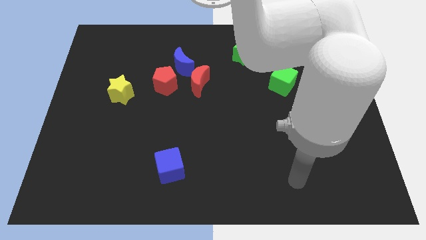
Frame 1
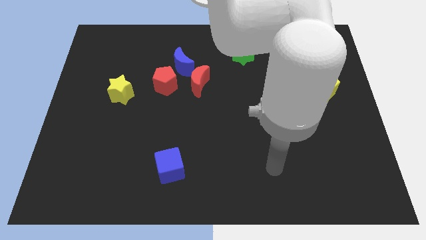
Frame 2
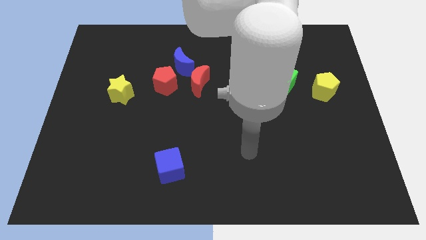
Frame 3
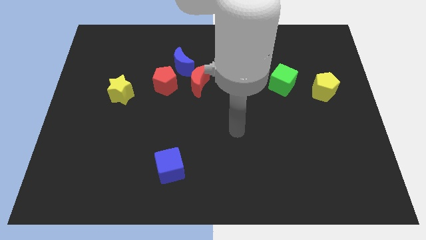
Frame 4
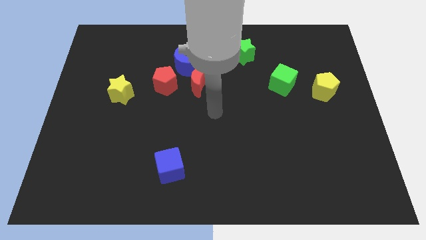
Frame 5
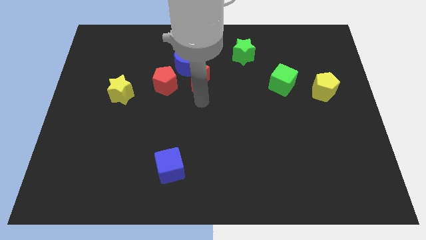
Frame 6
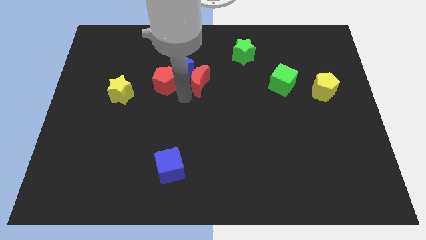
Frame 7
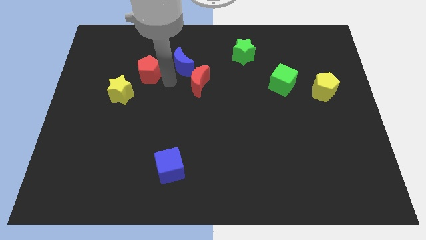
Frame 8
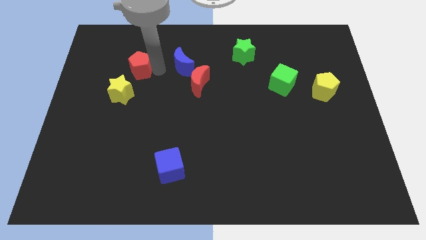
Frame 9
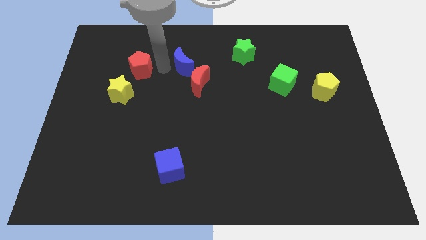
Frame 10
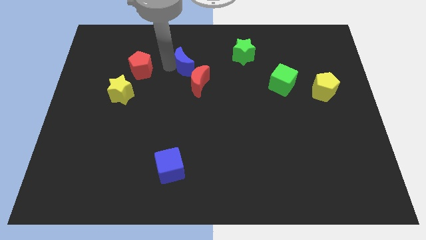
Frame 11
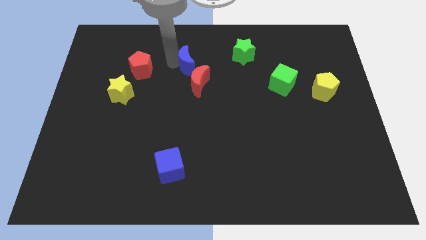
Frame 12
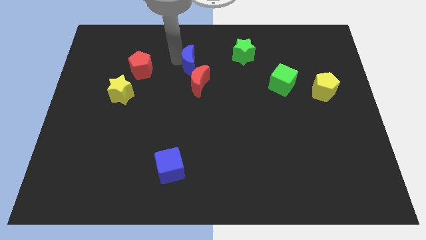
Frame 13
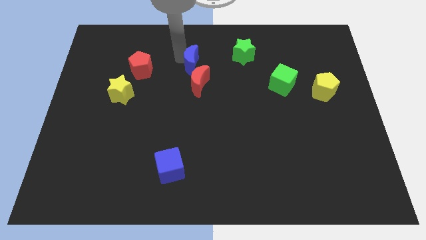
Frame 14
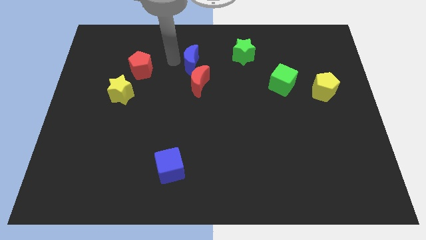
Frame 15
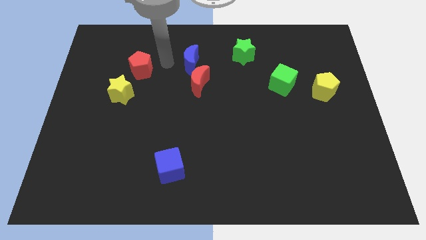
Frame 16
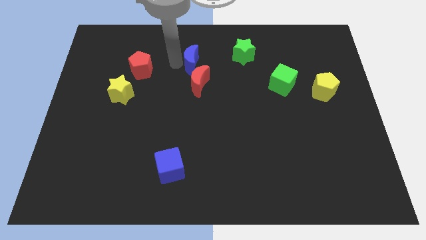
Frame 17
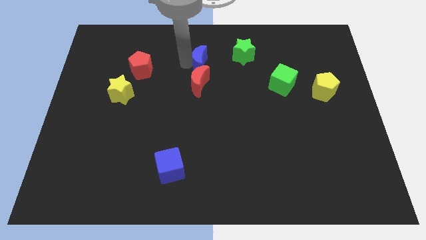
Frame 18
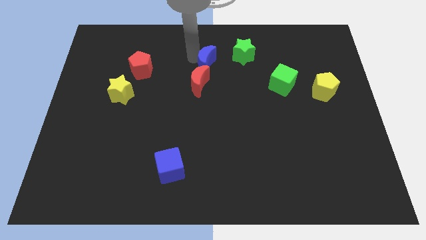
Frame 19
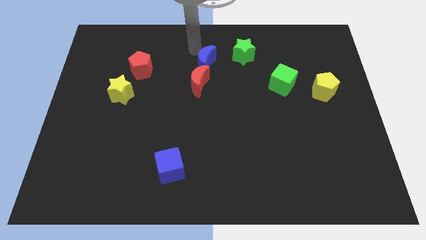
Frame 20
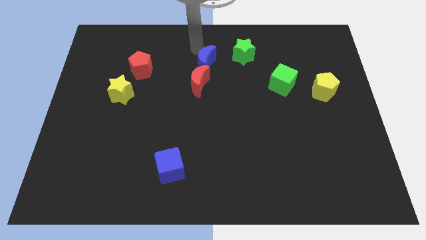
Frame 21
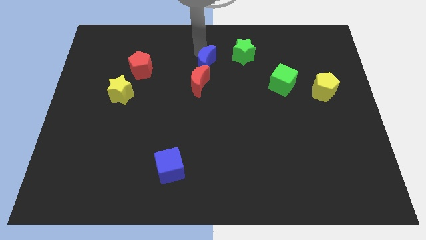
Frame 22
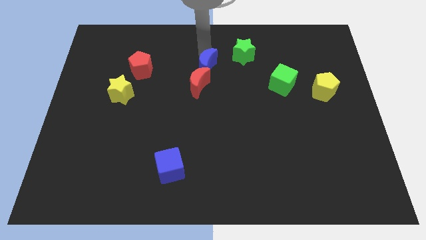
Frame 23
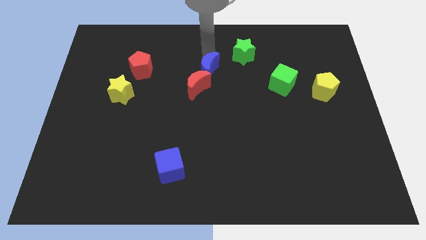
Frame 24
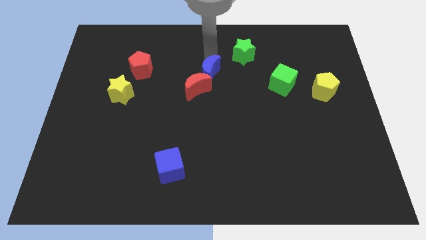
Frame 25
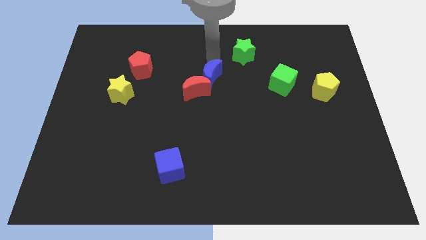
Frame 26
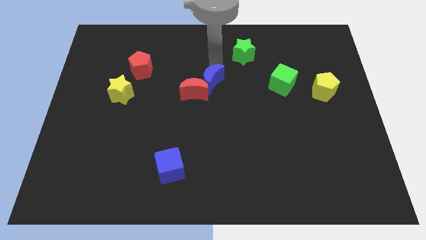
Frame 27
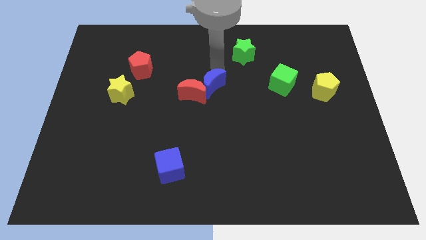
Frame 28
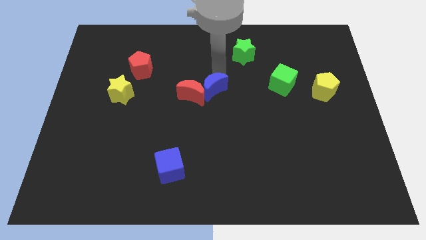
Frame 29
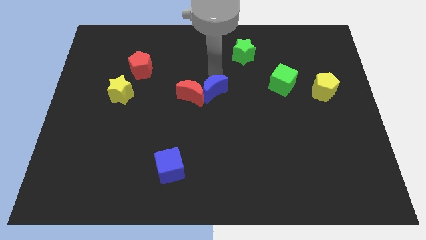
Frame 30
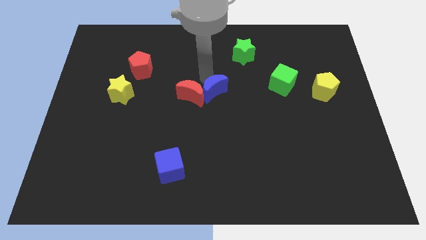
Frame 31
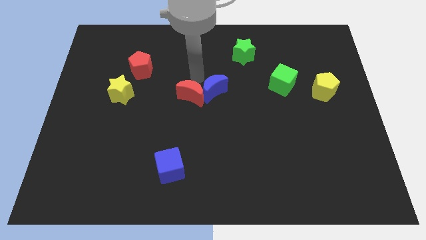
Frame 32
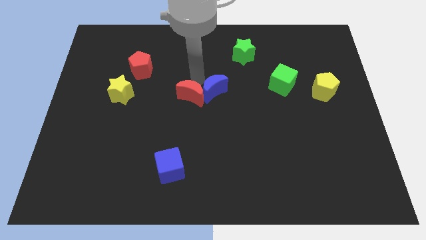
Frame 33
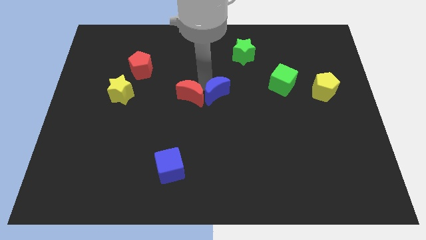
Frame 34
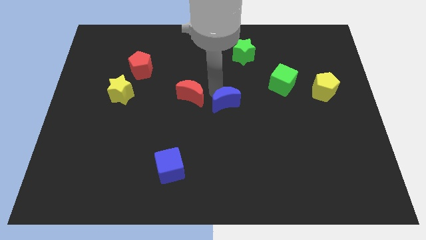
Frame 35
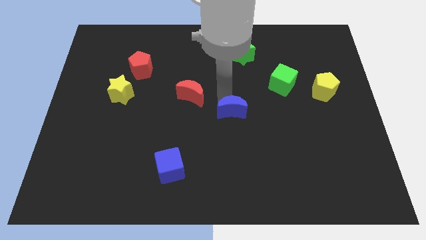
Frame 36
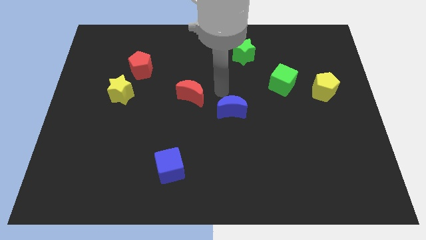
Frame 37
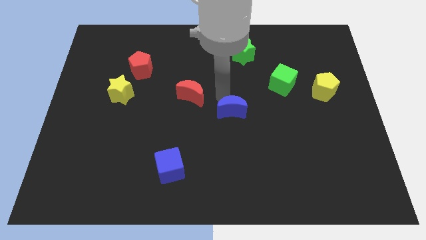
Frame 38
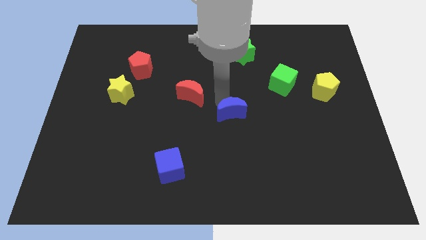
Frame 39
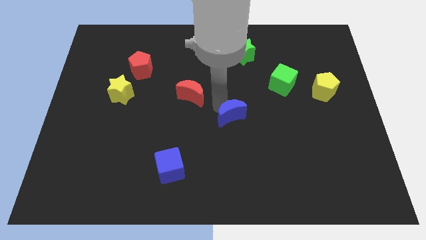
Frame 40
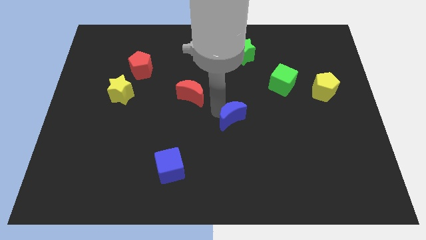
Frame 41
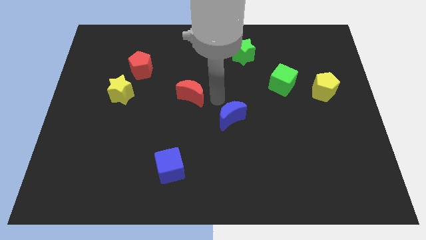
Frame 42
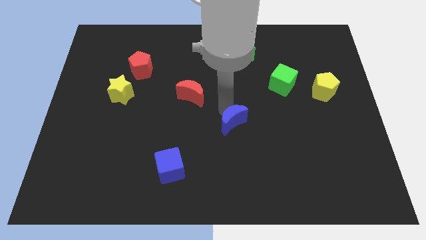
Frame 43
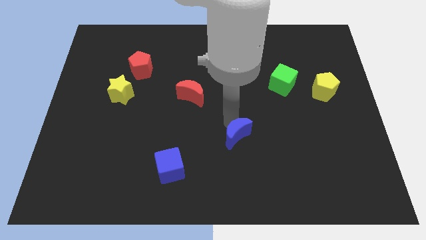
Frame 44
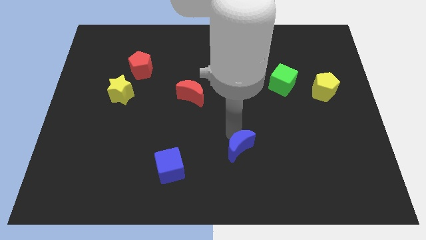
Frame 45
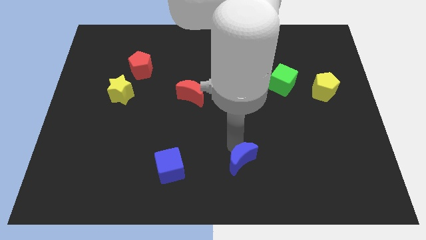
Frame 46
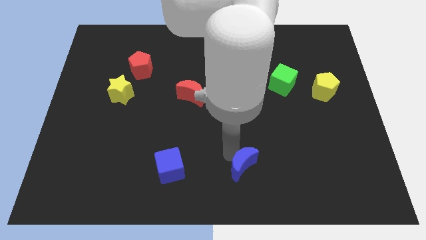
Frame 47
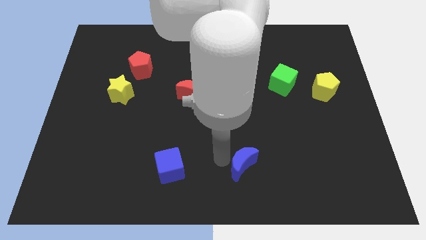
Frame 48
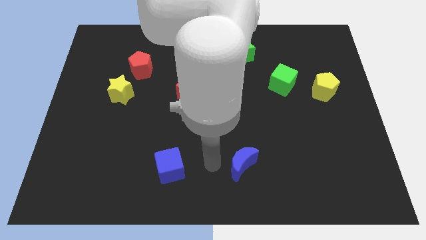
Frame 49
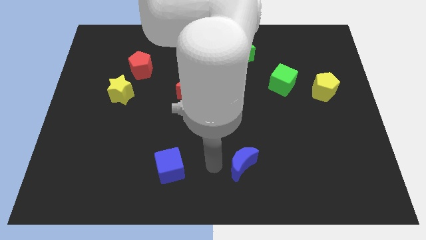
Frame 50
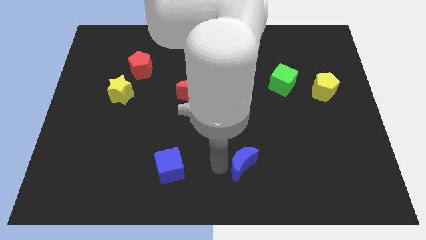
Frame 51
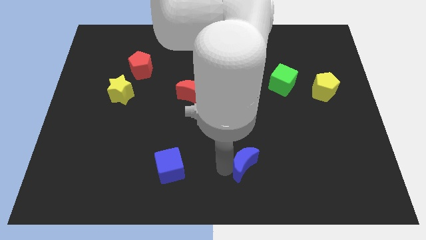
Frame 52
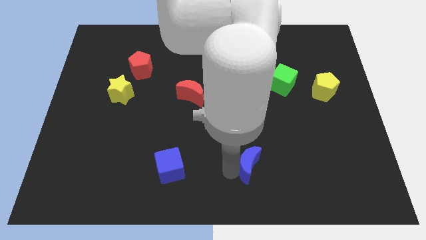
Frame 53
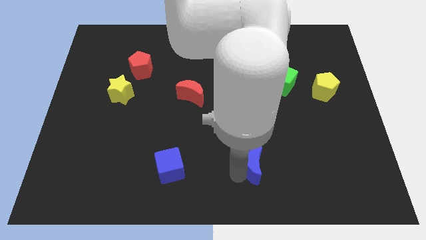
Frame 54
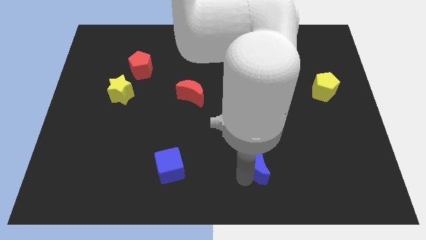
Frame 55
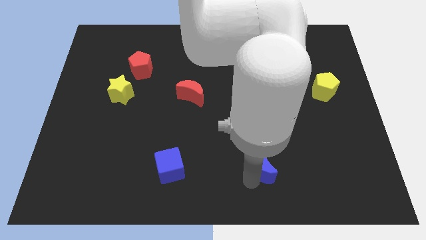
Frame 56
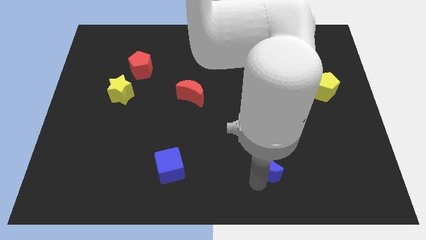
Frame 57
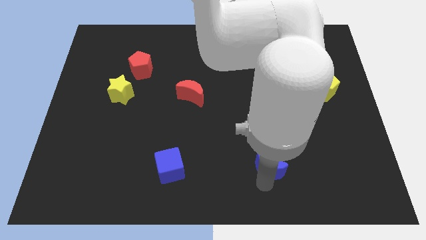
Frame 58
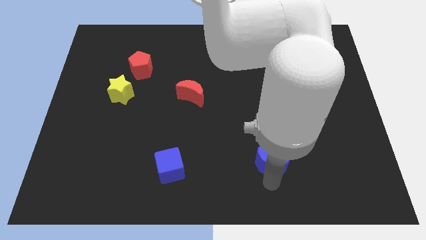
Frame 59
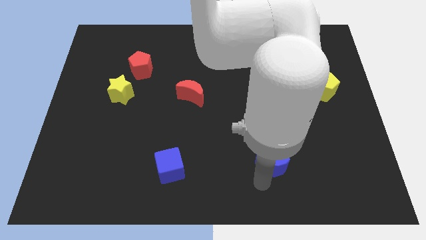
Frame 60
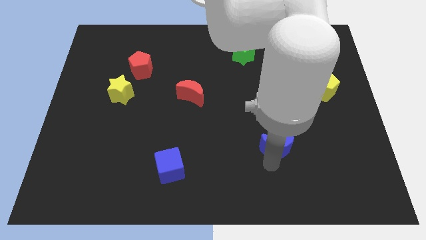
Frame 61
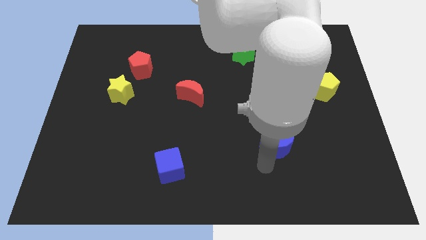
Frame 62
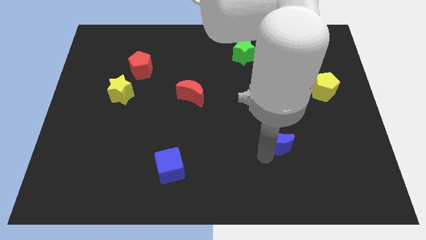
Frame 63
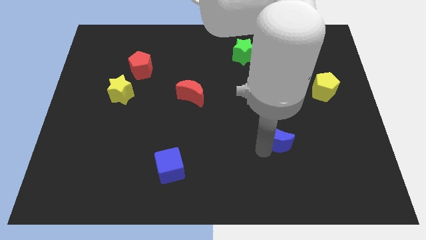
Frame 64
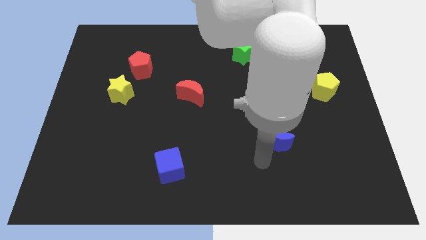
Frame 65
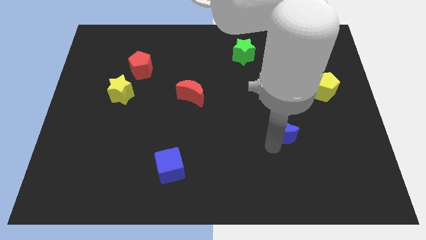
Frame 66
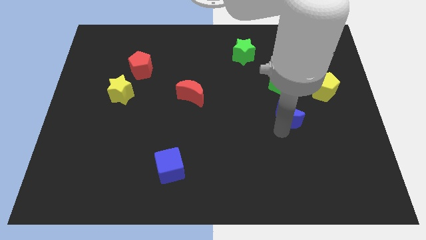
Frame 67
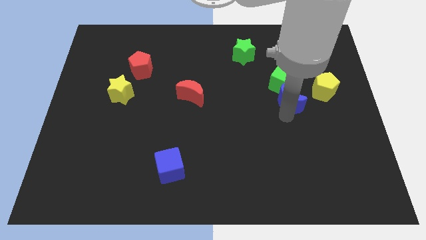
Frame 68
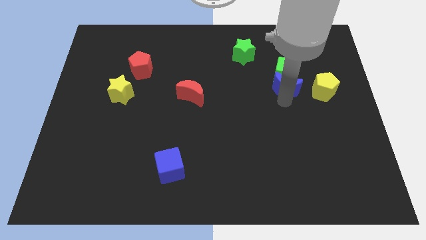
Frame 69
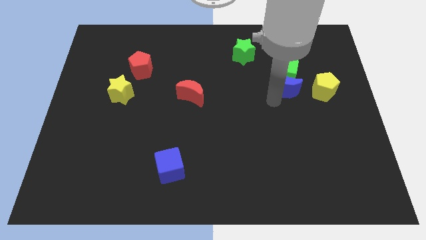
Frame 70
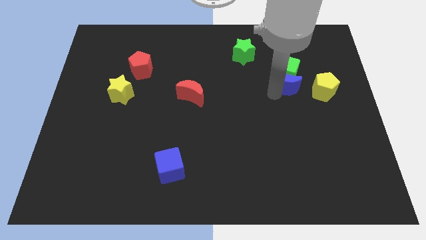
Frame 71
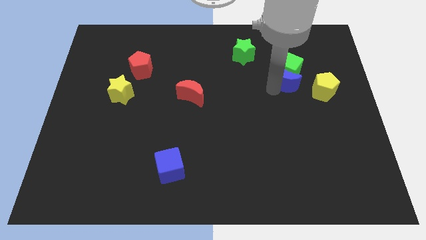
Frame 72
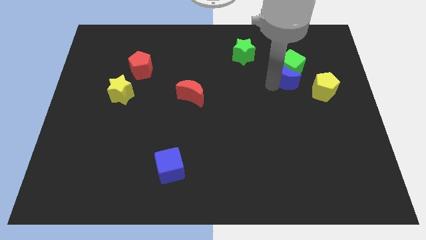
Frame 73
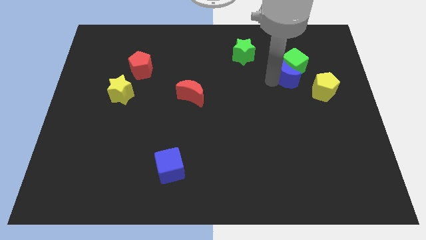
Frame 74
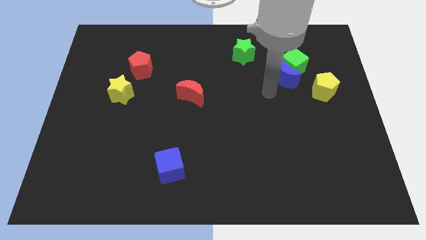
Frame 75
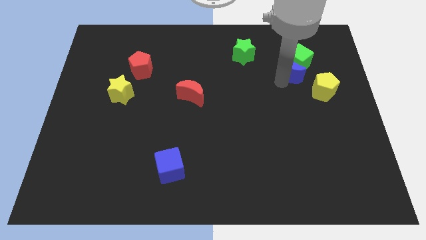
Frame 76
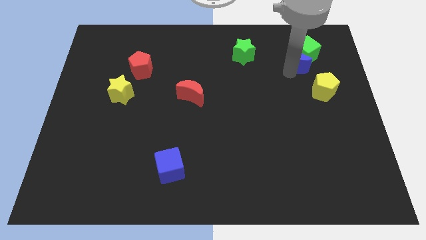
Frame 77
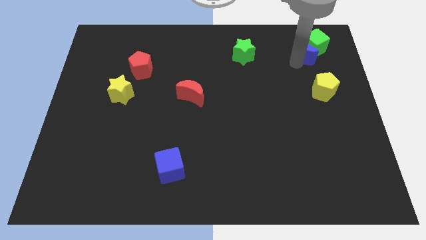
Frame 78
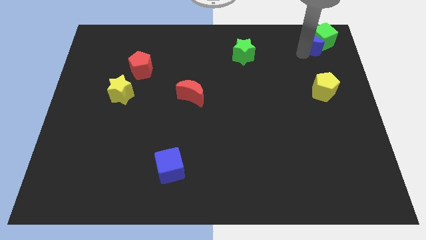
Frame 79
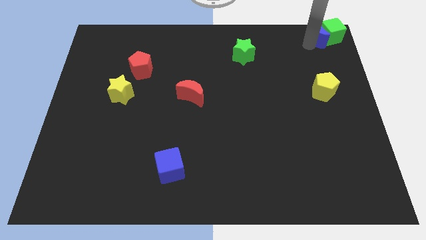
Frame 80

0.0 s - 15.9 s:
push the blue moon to the upper right corner

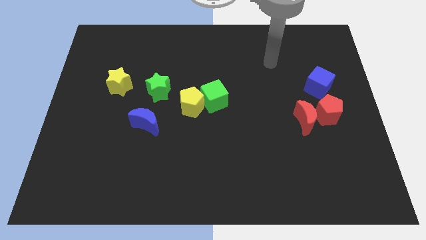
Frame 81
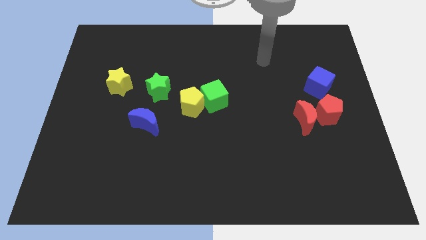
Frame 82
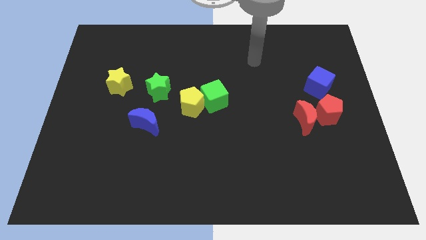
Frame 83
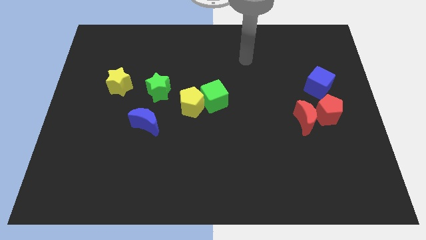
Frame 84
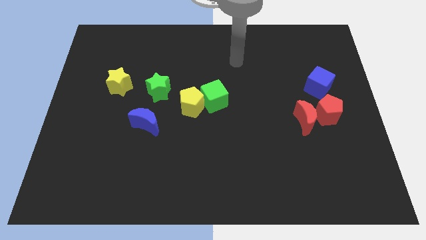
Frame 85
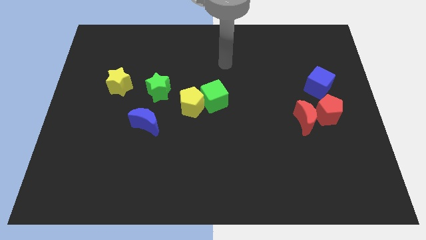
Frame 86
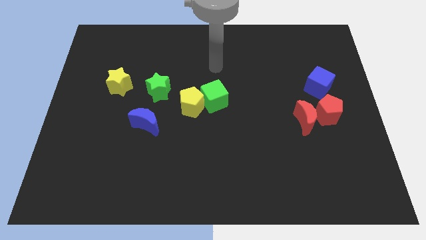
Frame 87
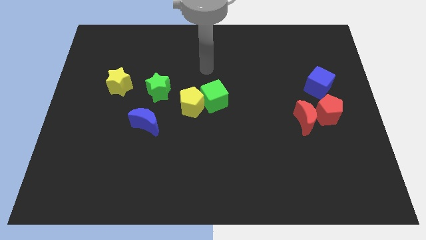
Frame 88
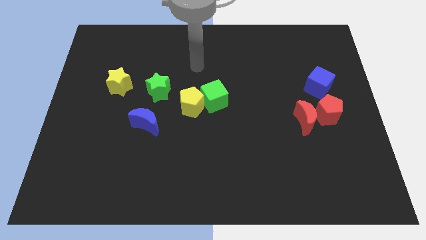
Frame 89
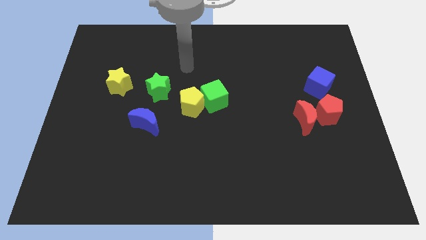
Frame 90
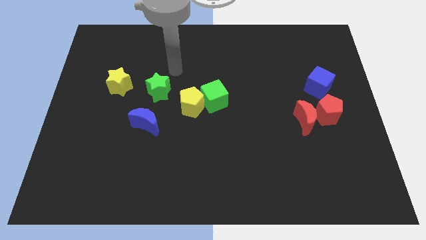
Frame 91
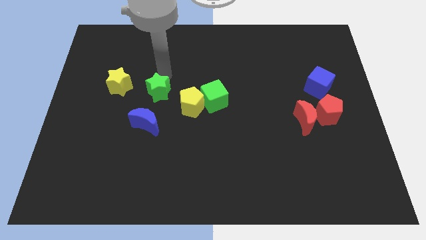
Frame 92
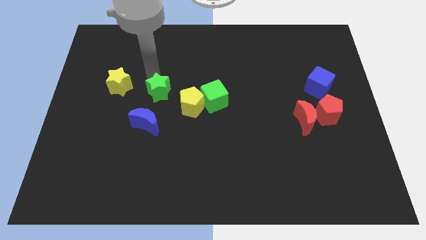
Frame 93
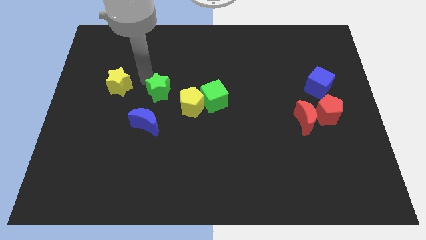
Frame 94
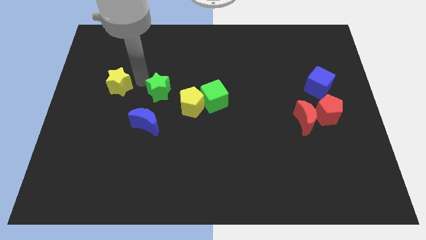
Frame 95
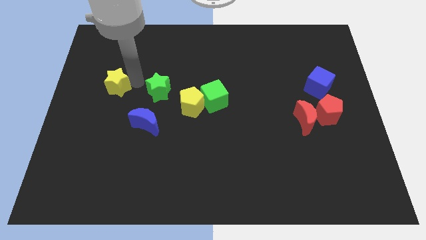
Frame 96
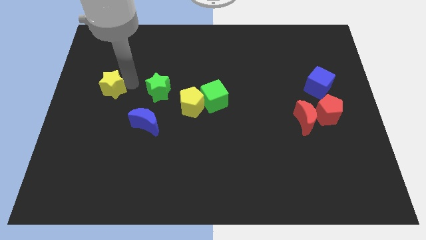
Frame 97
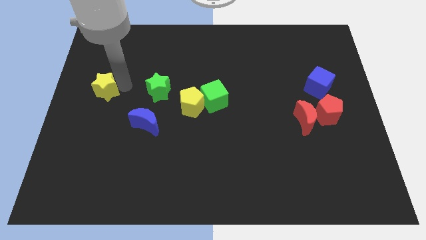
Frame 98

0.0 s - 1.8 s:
move the yellow star to the left side
